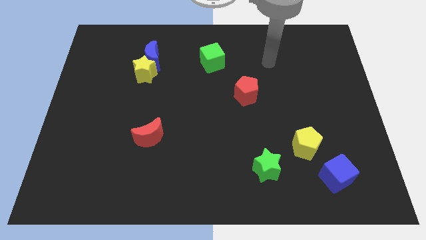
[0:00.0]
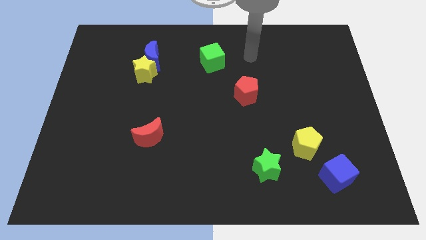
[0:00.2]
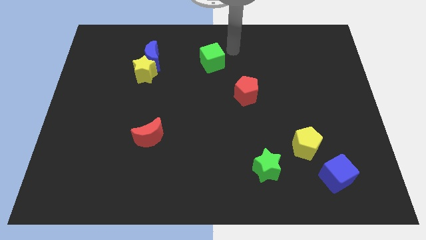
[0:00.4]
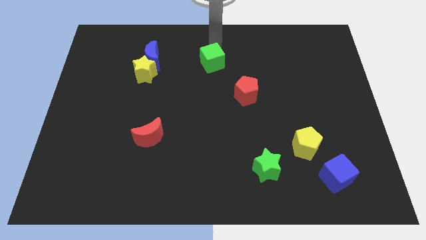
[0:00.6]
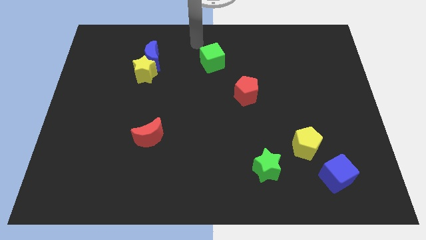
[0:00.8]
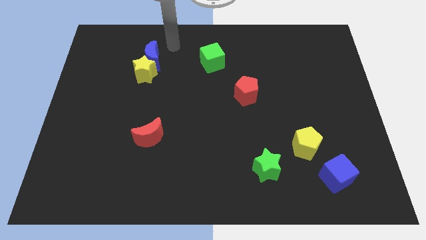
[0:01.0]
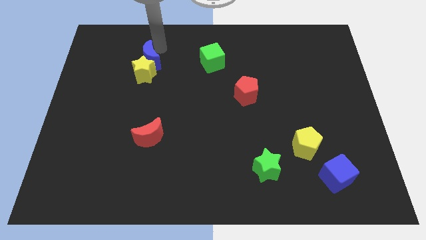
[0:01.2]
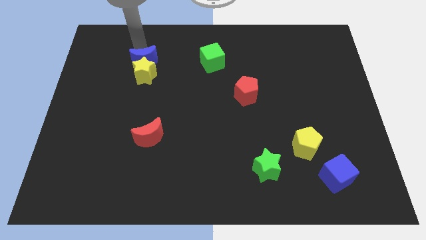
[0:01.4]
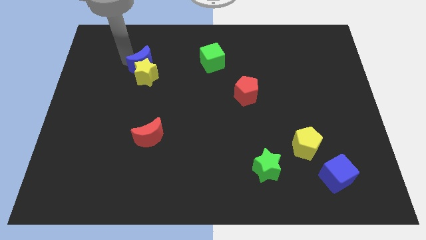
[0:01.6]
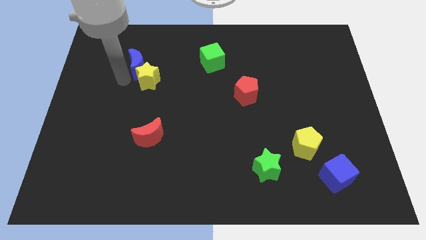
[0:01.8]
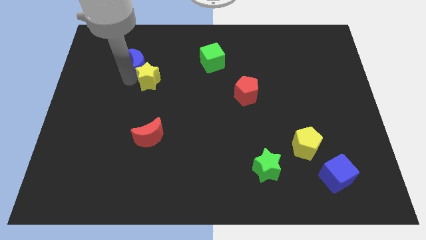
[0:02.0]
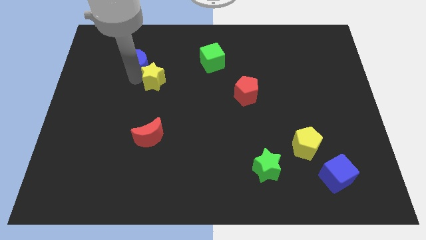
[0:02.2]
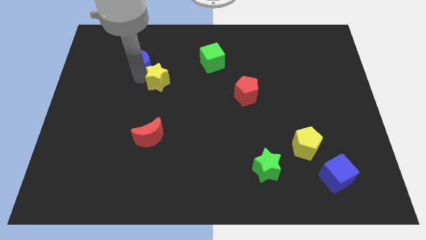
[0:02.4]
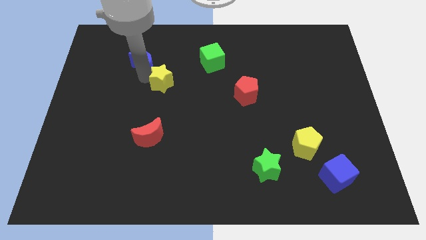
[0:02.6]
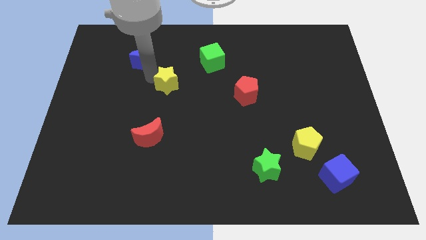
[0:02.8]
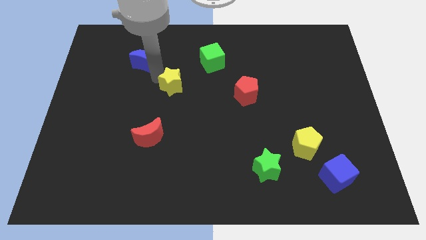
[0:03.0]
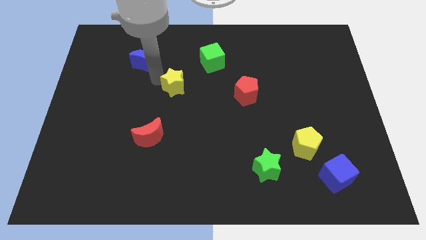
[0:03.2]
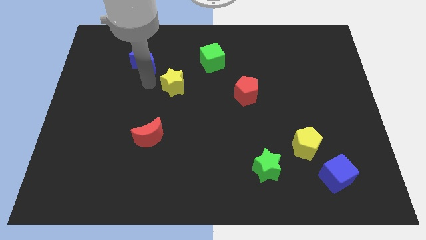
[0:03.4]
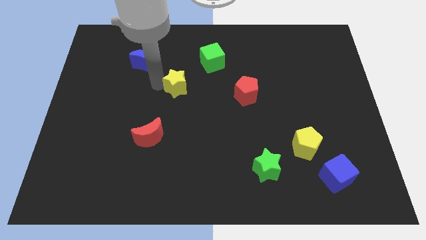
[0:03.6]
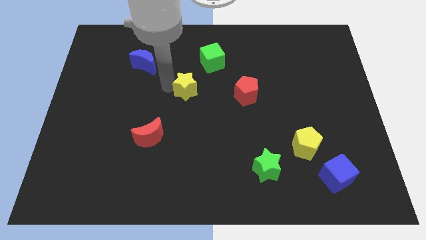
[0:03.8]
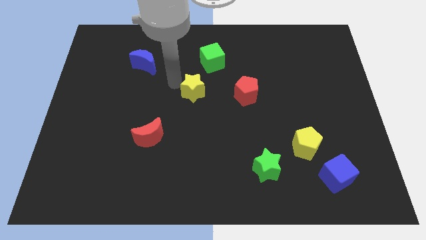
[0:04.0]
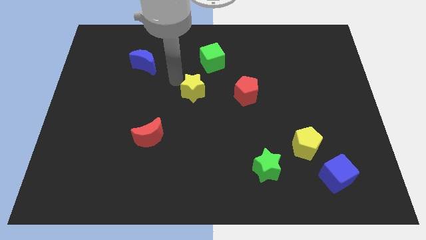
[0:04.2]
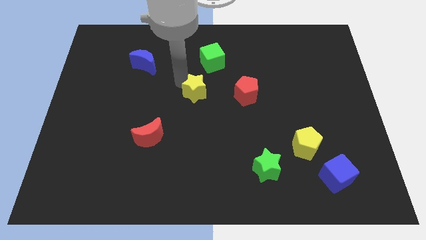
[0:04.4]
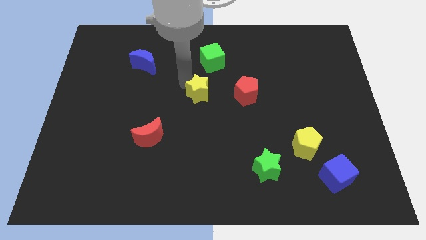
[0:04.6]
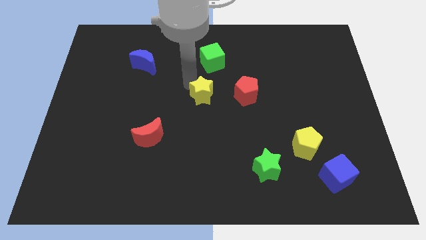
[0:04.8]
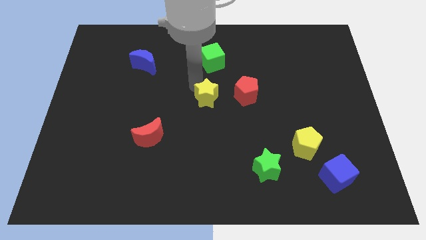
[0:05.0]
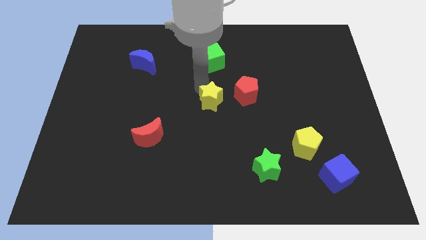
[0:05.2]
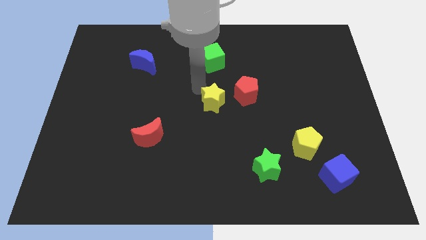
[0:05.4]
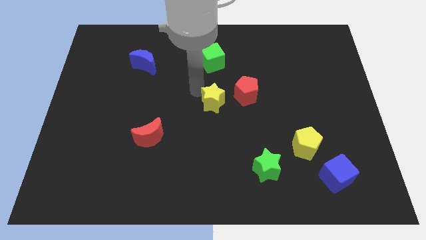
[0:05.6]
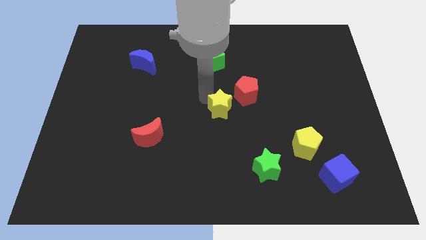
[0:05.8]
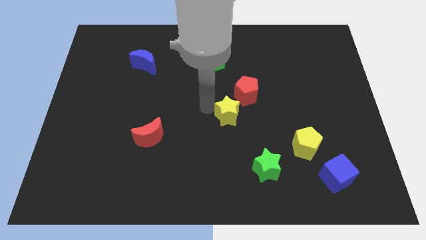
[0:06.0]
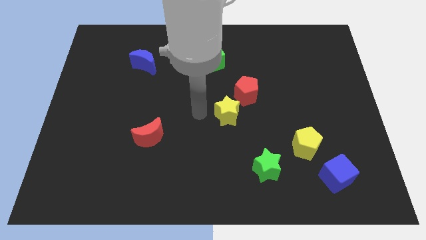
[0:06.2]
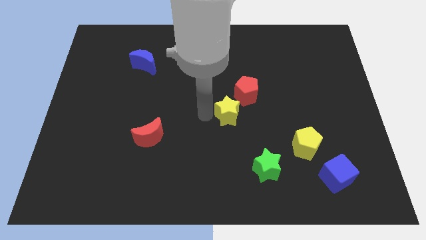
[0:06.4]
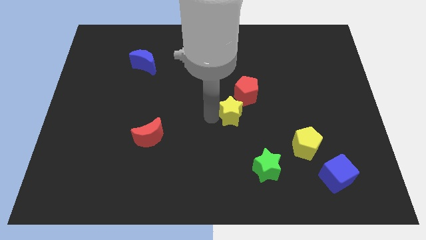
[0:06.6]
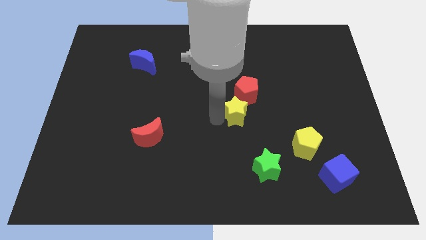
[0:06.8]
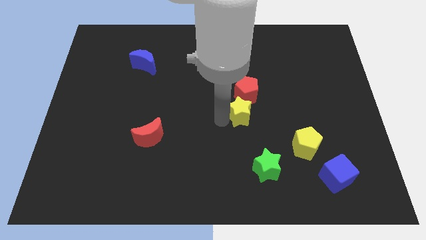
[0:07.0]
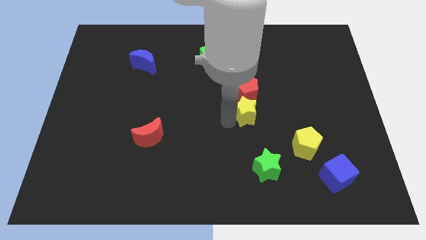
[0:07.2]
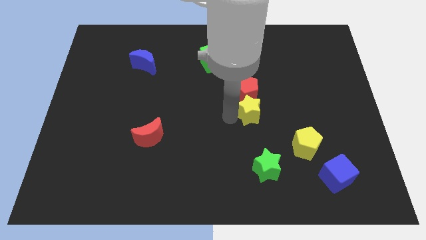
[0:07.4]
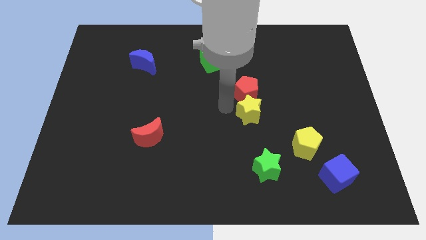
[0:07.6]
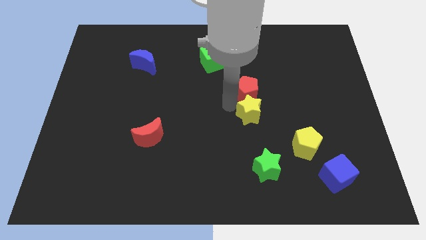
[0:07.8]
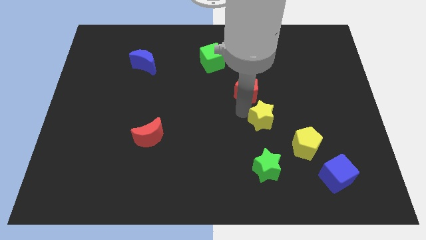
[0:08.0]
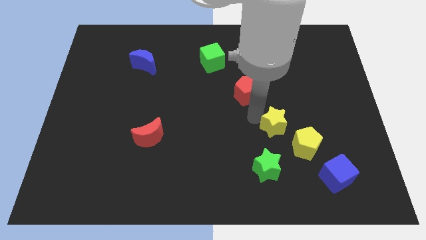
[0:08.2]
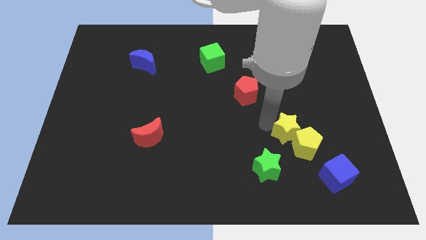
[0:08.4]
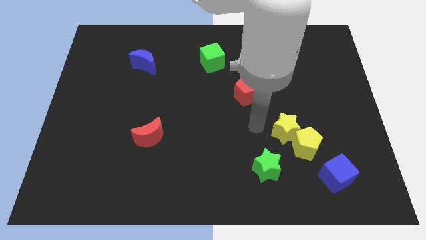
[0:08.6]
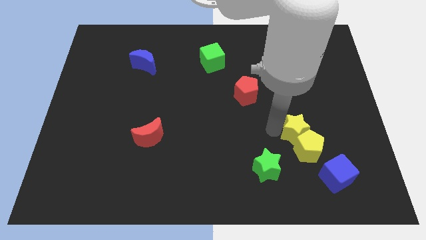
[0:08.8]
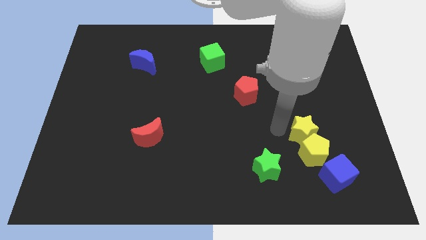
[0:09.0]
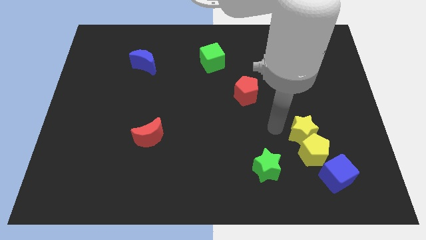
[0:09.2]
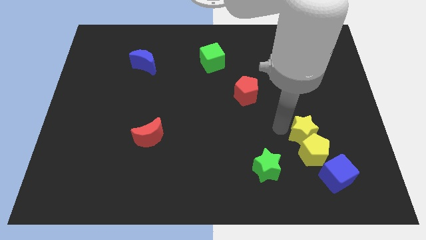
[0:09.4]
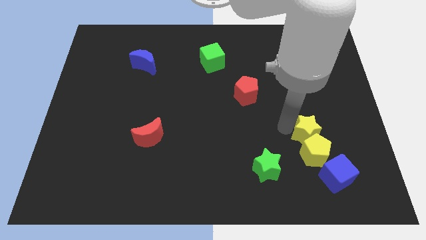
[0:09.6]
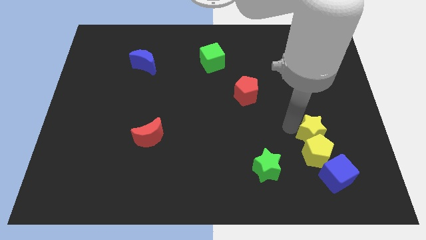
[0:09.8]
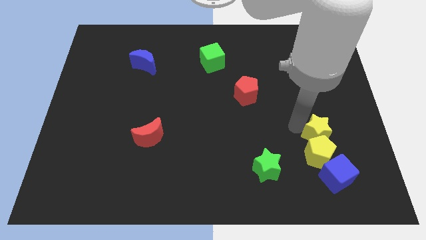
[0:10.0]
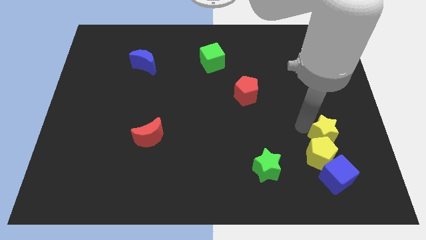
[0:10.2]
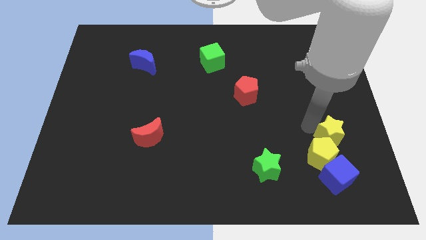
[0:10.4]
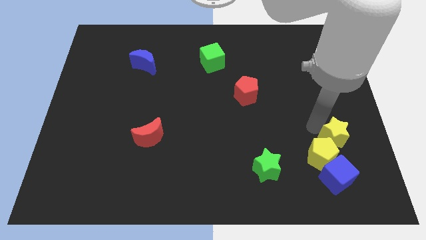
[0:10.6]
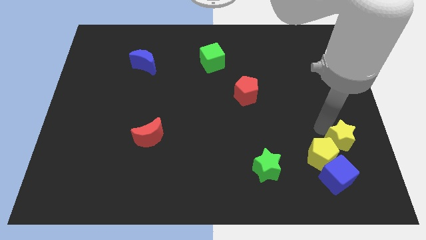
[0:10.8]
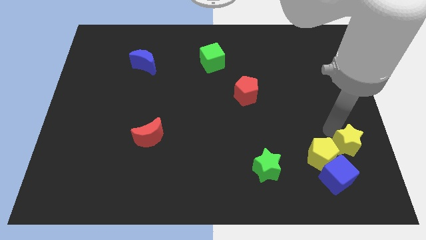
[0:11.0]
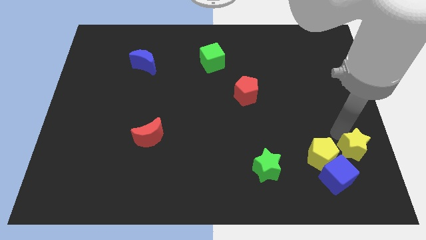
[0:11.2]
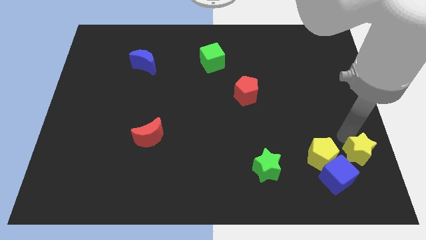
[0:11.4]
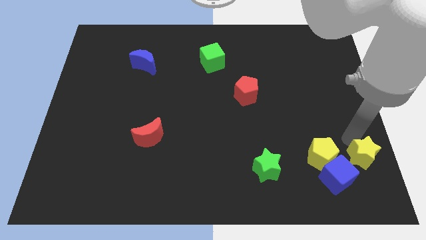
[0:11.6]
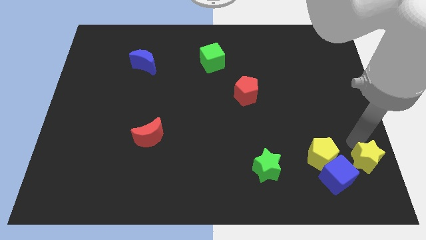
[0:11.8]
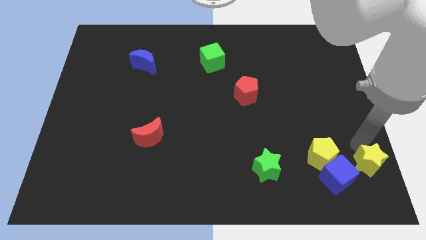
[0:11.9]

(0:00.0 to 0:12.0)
put the yellow star to the bottom right corner

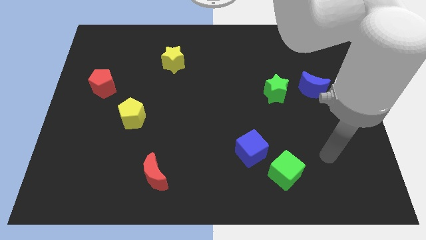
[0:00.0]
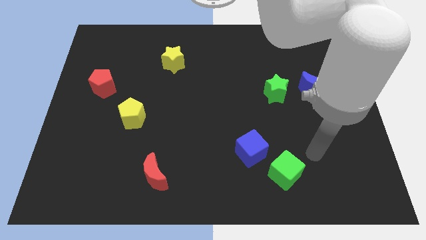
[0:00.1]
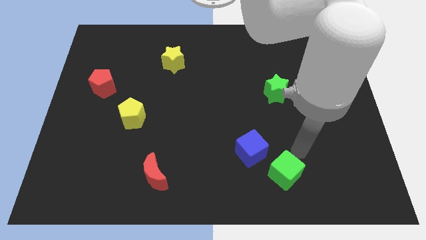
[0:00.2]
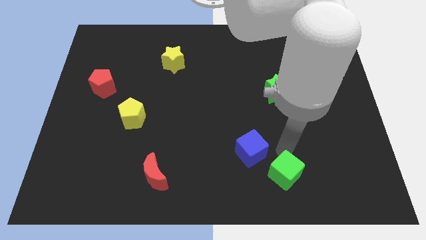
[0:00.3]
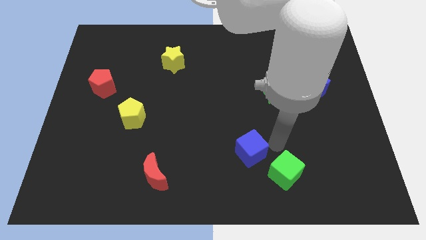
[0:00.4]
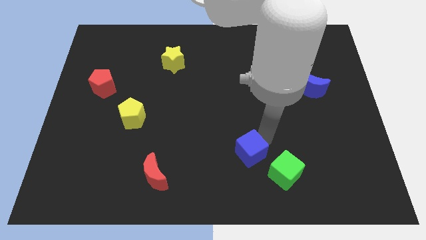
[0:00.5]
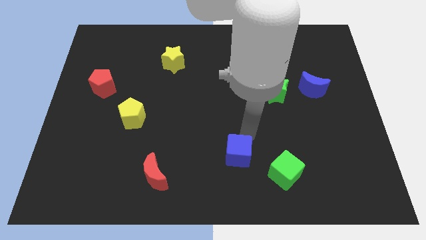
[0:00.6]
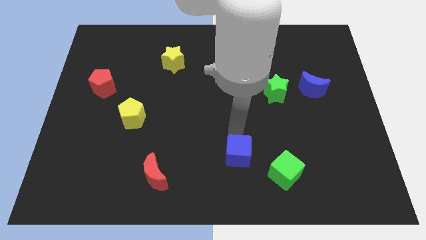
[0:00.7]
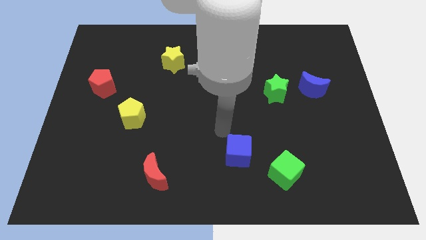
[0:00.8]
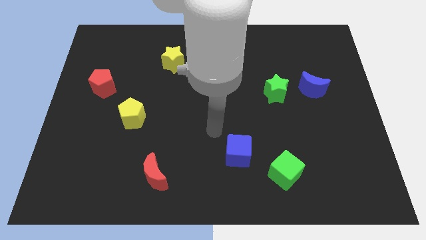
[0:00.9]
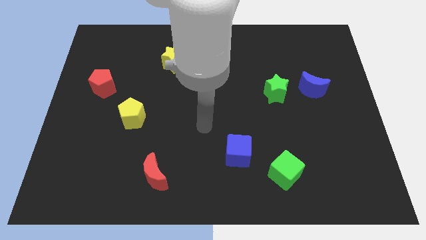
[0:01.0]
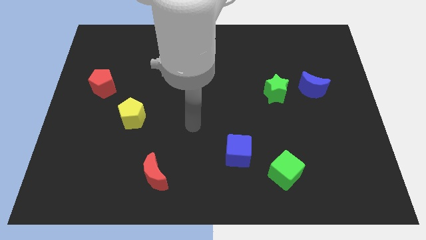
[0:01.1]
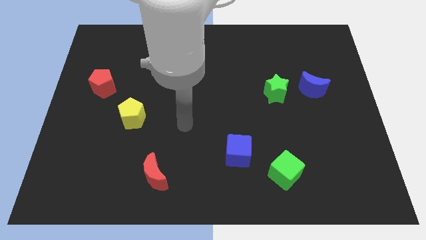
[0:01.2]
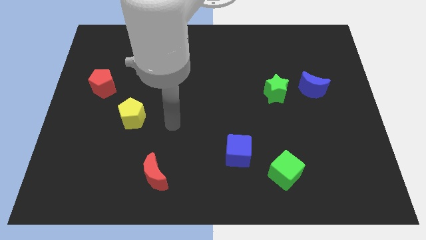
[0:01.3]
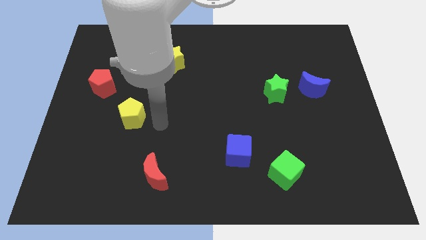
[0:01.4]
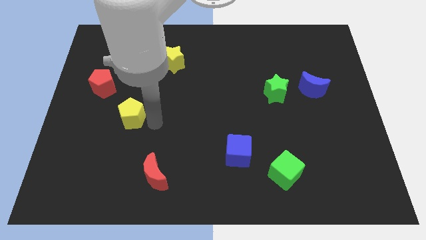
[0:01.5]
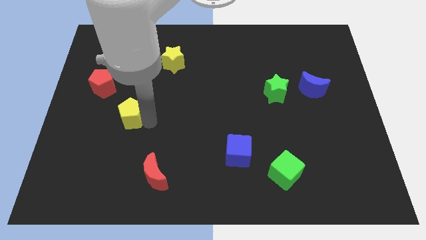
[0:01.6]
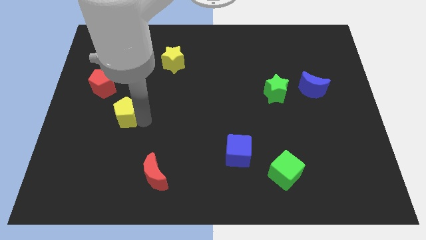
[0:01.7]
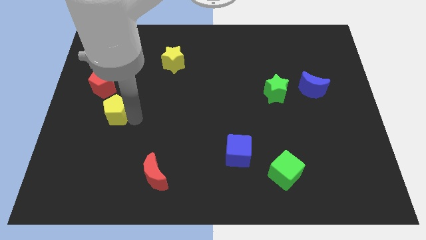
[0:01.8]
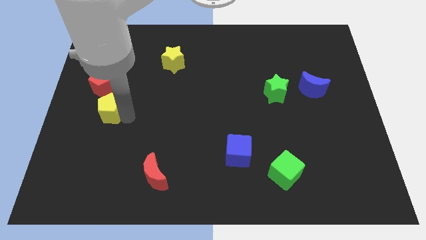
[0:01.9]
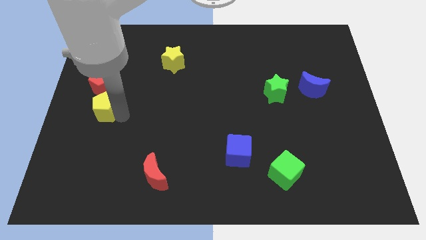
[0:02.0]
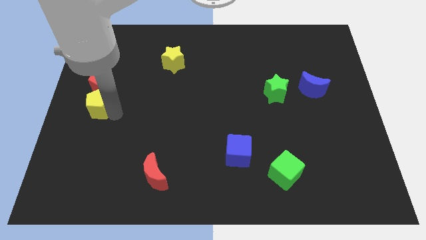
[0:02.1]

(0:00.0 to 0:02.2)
move the yellow pentagon to the center left
